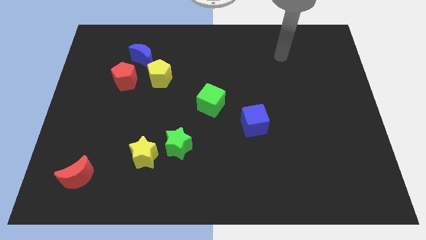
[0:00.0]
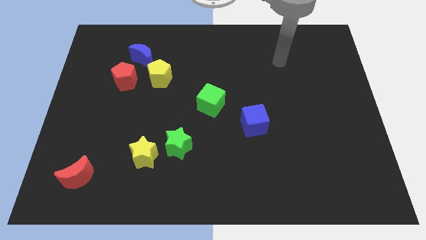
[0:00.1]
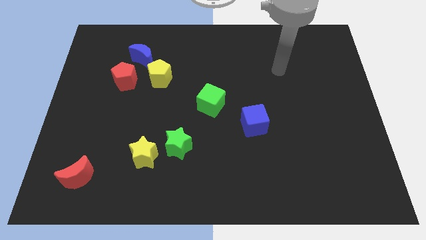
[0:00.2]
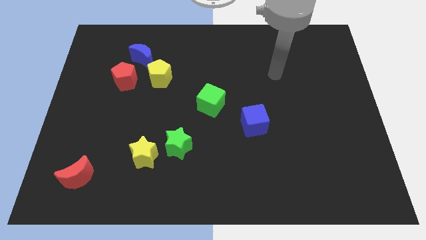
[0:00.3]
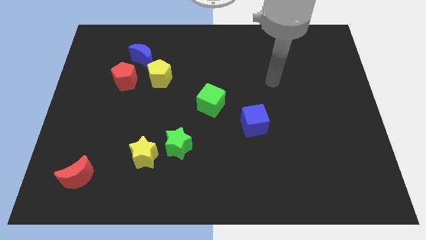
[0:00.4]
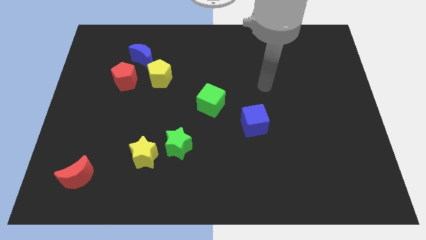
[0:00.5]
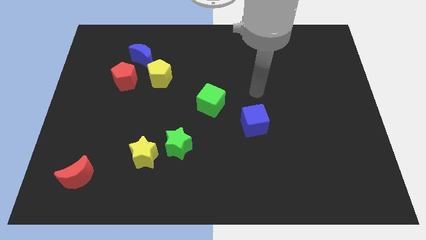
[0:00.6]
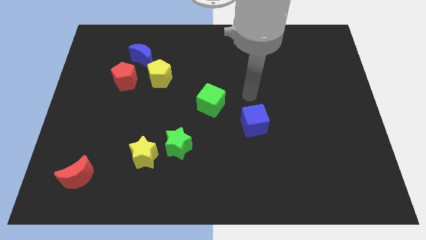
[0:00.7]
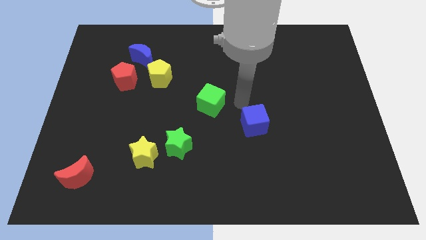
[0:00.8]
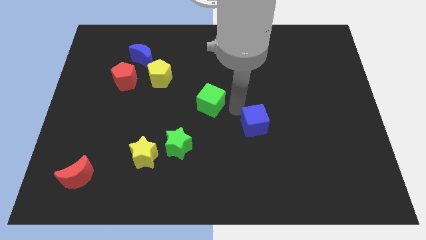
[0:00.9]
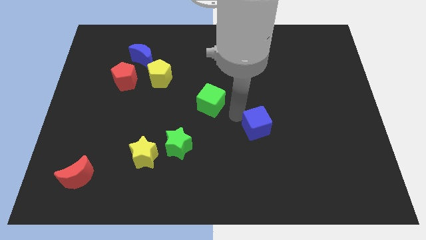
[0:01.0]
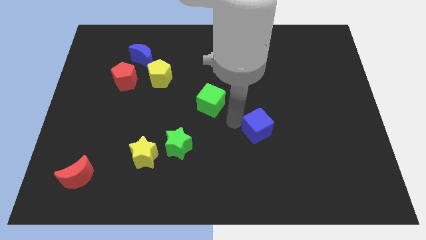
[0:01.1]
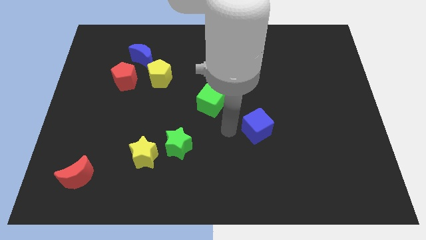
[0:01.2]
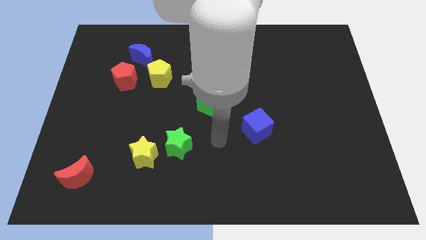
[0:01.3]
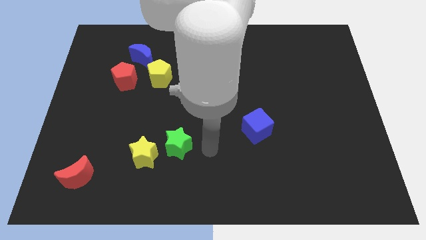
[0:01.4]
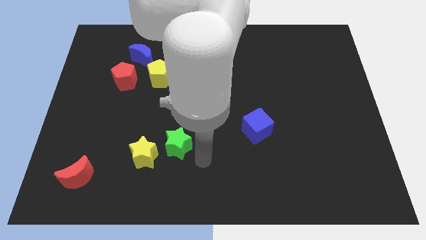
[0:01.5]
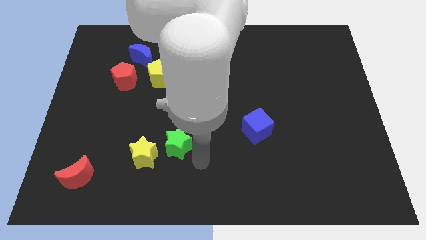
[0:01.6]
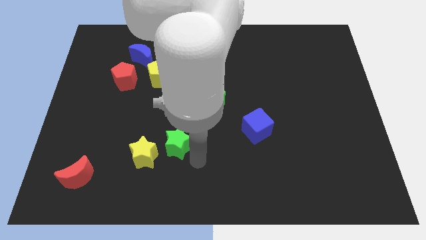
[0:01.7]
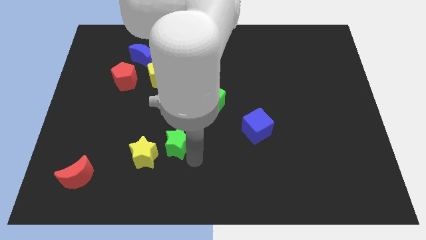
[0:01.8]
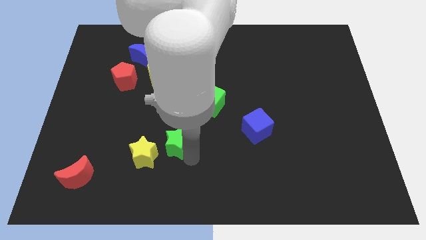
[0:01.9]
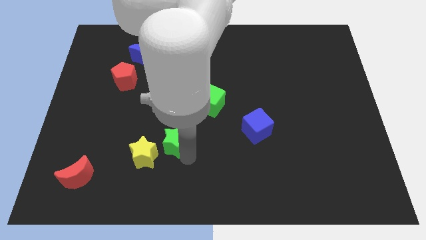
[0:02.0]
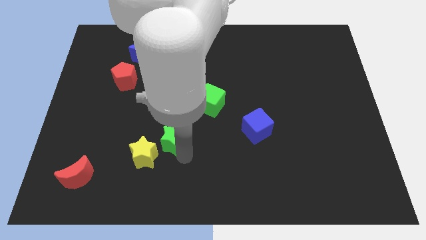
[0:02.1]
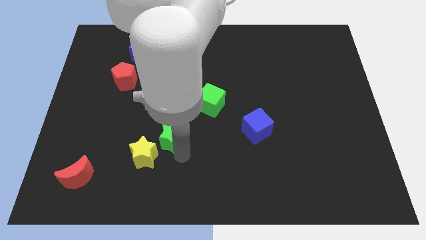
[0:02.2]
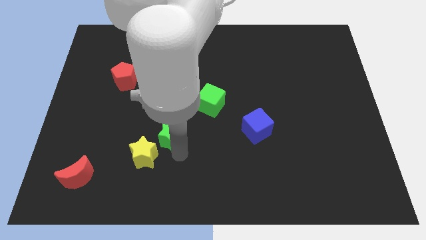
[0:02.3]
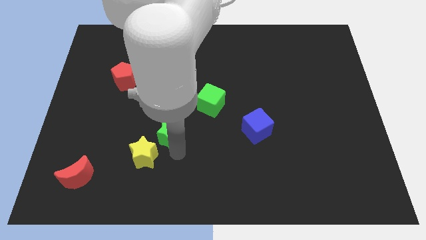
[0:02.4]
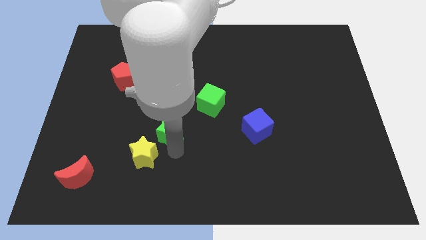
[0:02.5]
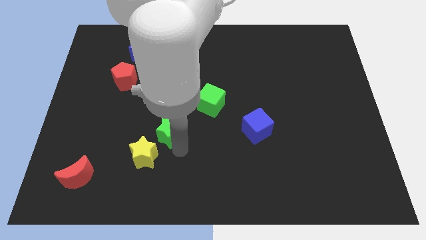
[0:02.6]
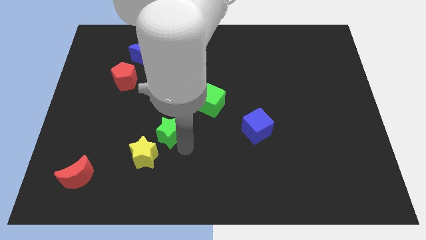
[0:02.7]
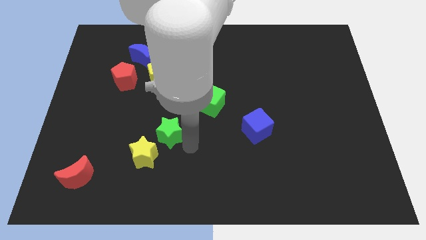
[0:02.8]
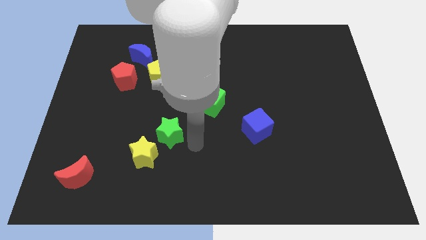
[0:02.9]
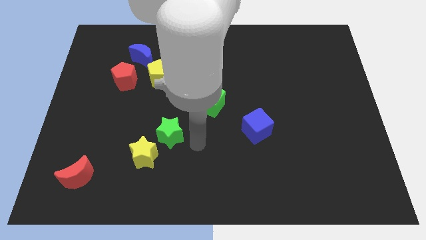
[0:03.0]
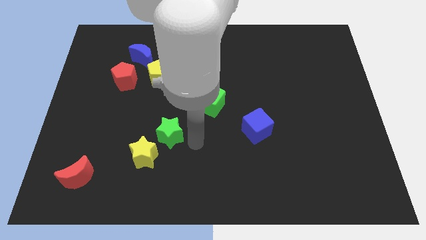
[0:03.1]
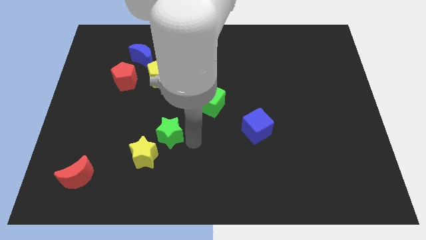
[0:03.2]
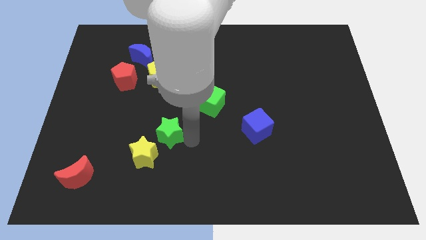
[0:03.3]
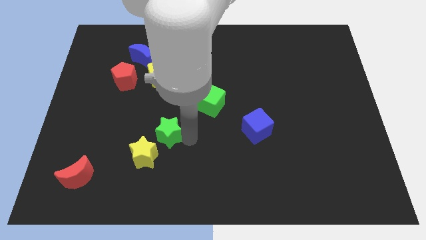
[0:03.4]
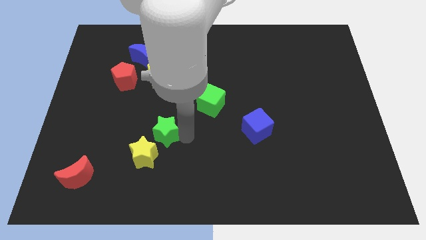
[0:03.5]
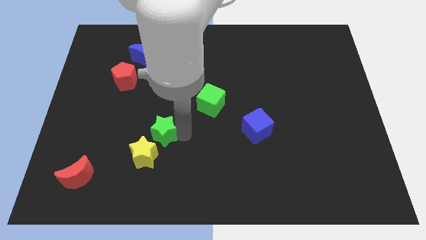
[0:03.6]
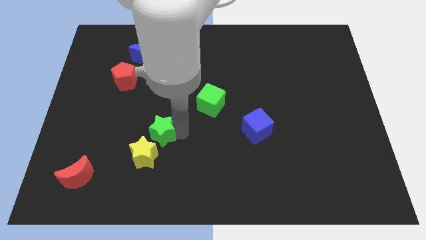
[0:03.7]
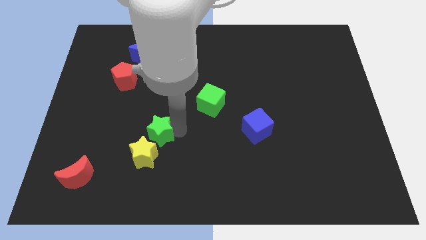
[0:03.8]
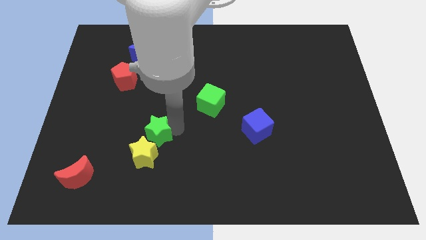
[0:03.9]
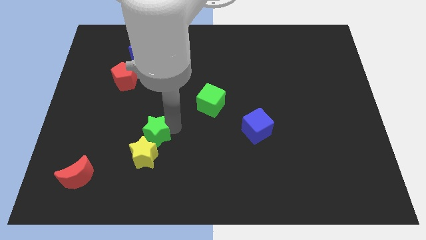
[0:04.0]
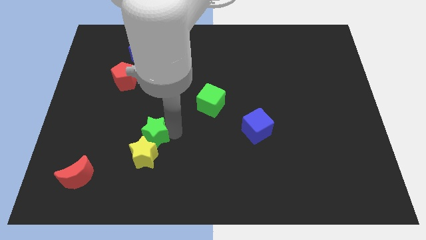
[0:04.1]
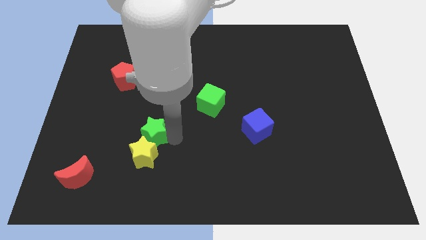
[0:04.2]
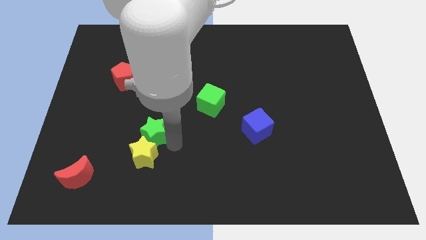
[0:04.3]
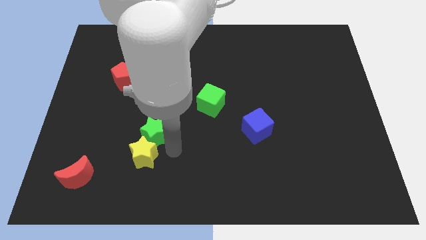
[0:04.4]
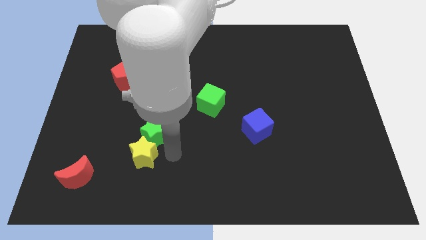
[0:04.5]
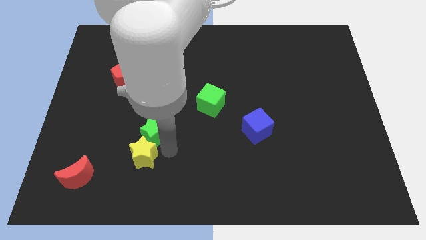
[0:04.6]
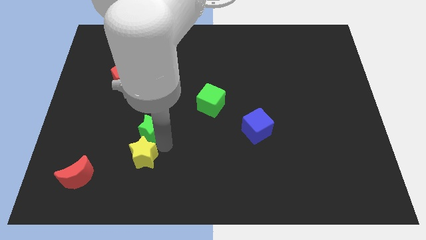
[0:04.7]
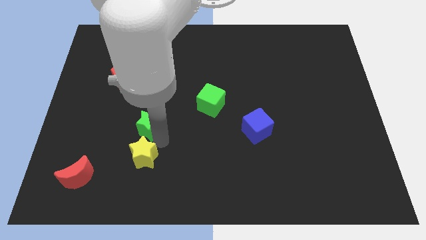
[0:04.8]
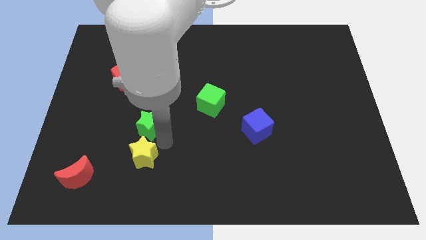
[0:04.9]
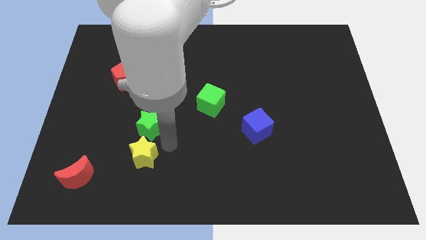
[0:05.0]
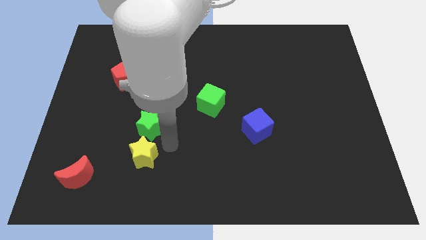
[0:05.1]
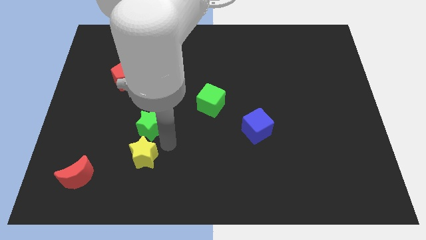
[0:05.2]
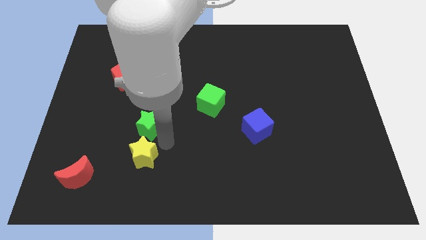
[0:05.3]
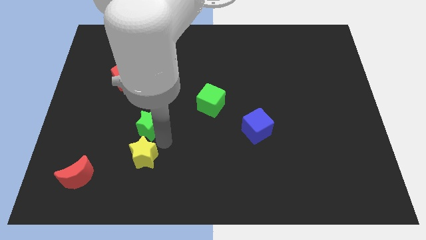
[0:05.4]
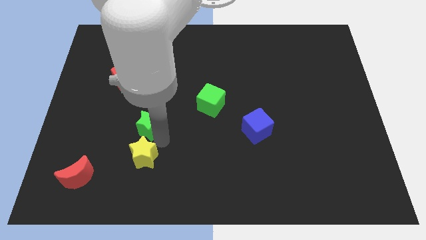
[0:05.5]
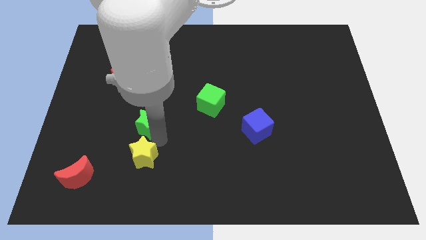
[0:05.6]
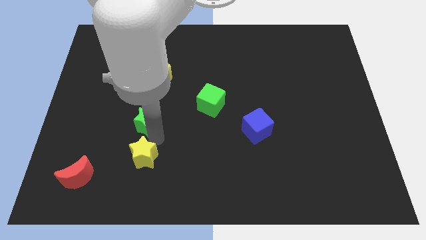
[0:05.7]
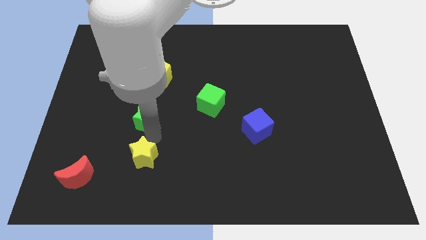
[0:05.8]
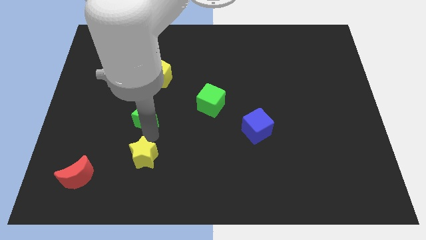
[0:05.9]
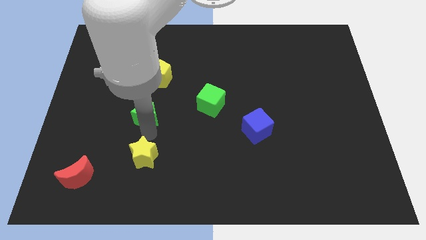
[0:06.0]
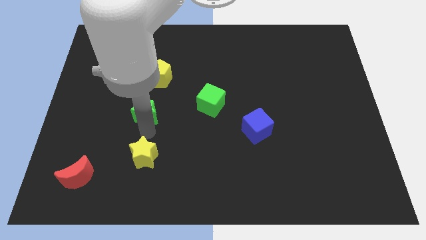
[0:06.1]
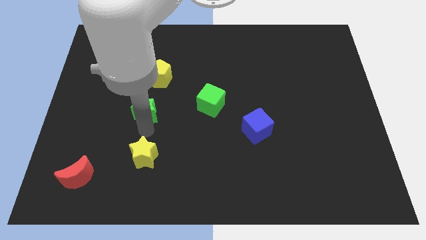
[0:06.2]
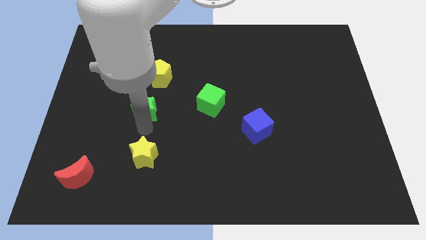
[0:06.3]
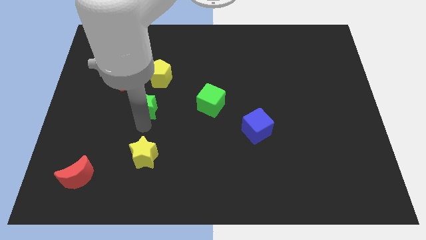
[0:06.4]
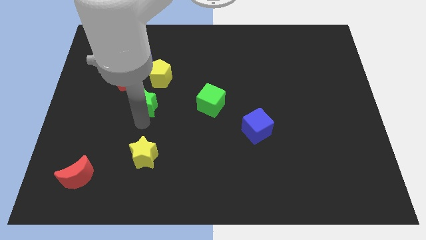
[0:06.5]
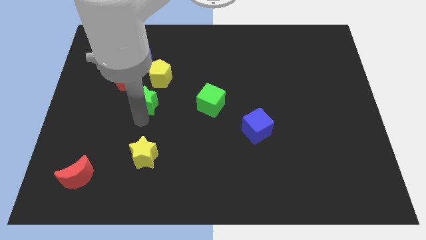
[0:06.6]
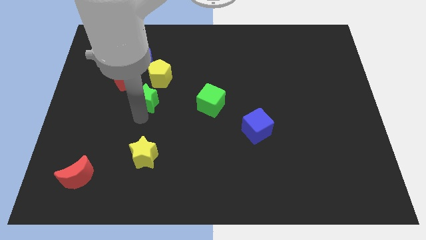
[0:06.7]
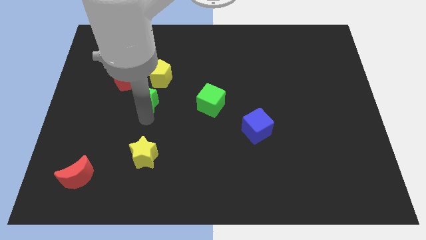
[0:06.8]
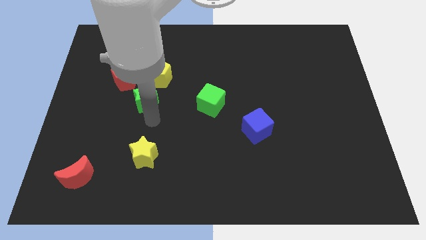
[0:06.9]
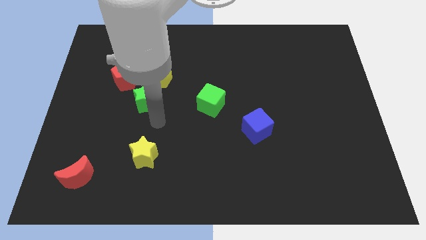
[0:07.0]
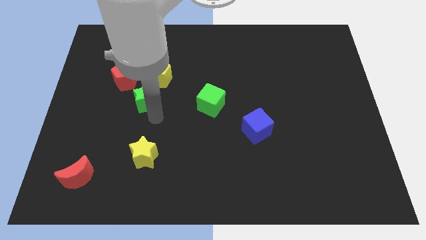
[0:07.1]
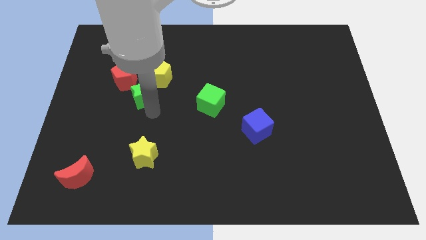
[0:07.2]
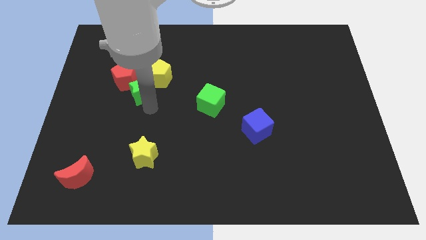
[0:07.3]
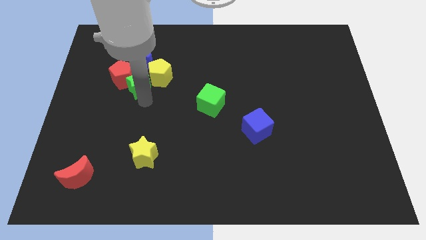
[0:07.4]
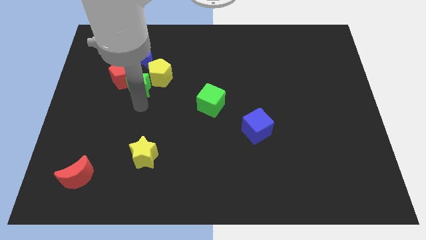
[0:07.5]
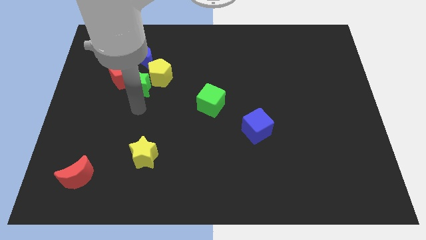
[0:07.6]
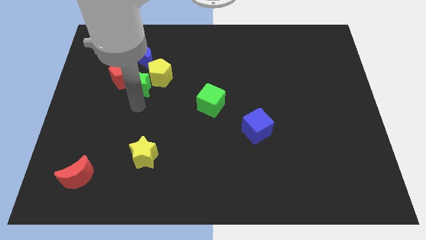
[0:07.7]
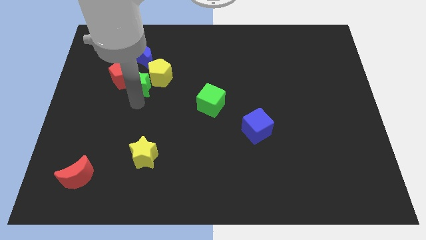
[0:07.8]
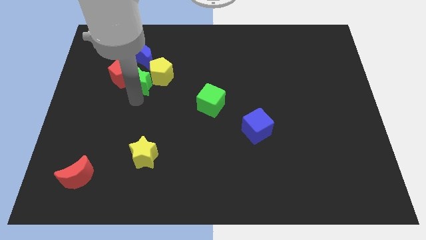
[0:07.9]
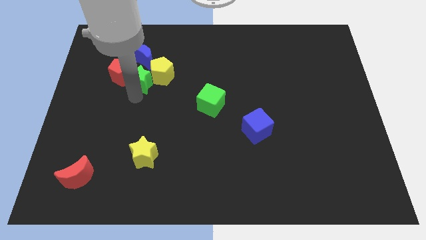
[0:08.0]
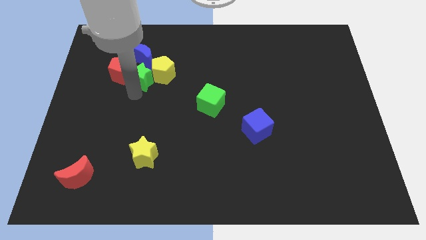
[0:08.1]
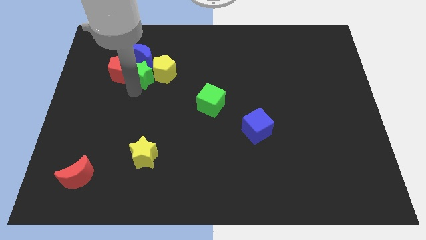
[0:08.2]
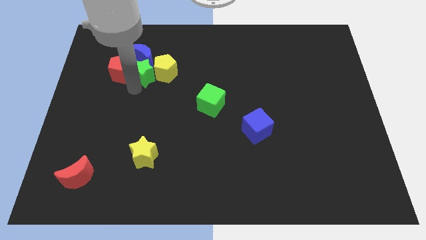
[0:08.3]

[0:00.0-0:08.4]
put the green star close to the blue moon
